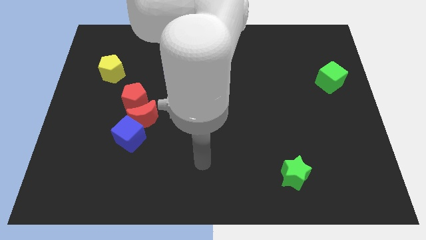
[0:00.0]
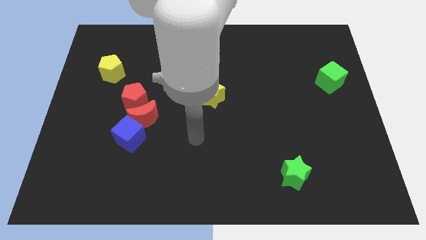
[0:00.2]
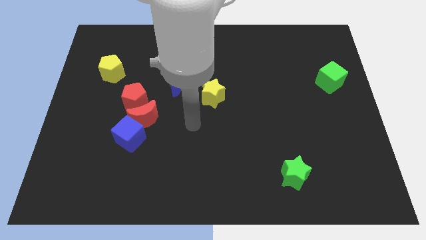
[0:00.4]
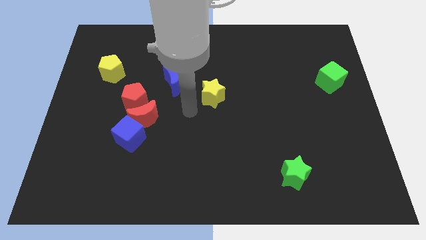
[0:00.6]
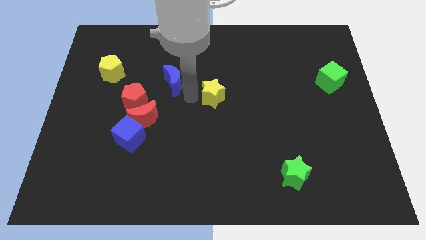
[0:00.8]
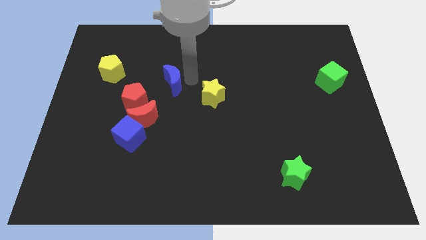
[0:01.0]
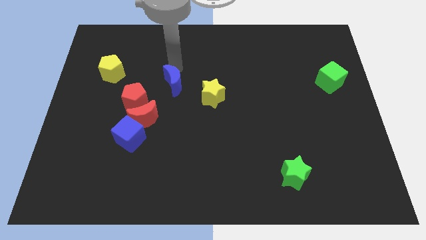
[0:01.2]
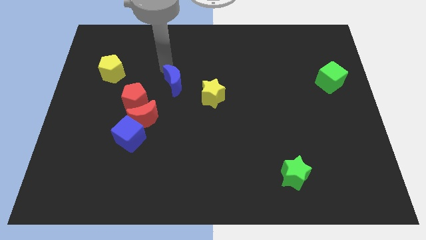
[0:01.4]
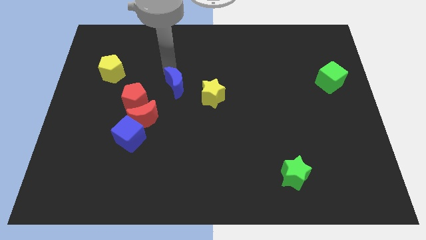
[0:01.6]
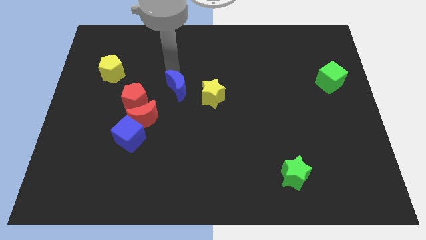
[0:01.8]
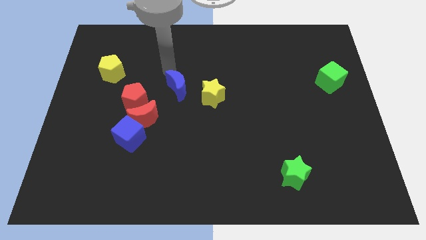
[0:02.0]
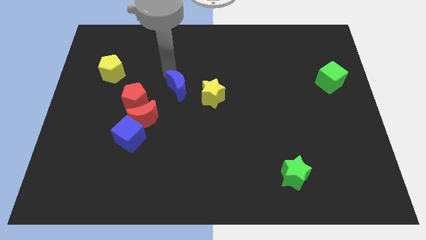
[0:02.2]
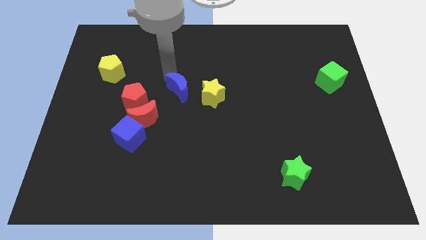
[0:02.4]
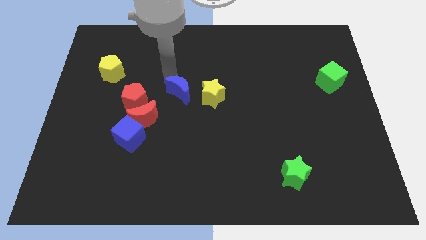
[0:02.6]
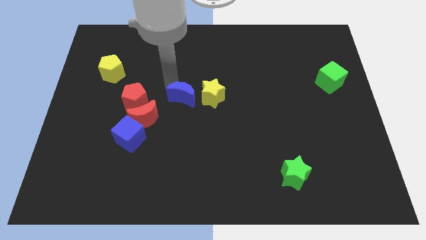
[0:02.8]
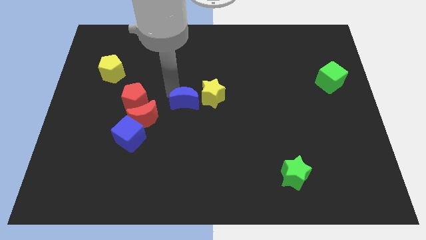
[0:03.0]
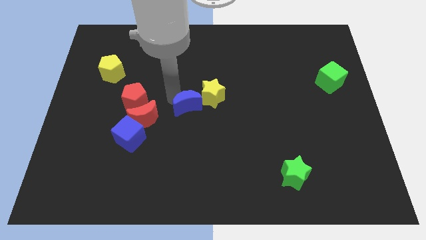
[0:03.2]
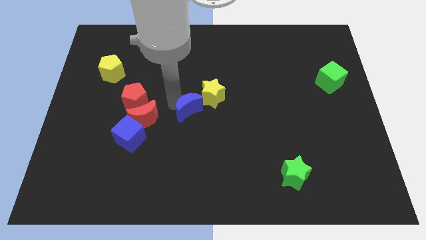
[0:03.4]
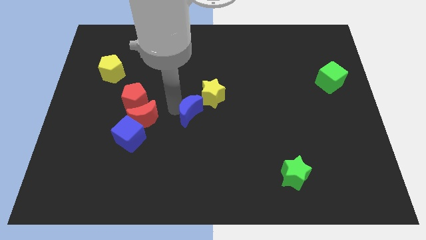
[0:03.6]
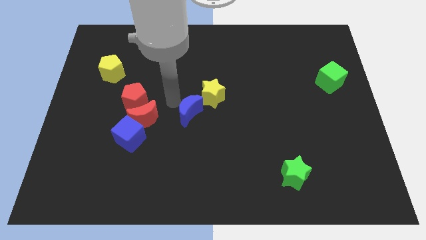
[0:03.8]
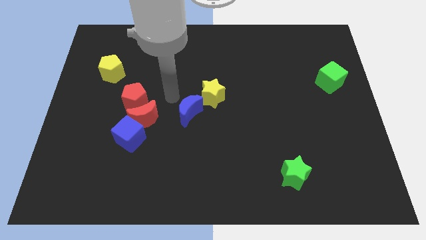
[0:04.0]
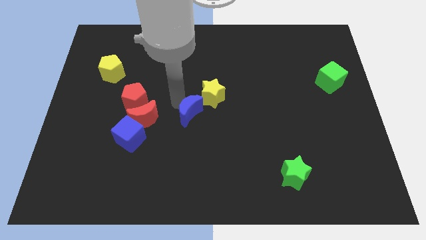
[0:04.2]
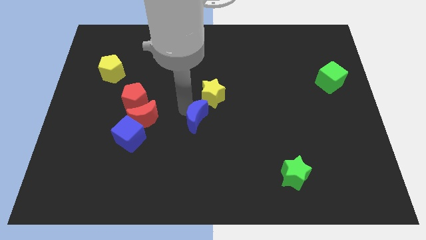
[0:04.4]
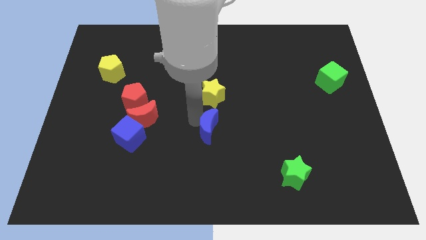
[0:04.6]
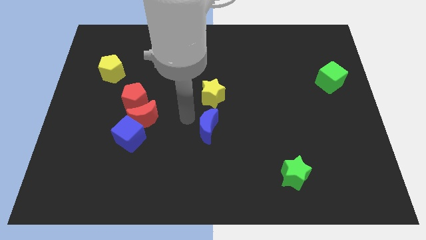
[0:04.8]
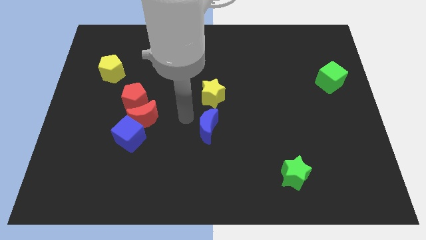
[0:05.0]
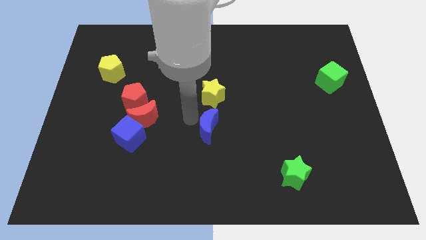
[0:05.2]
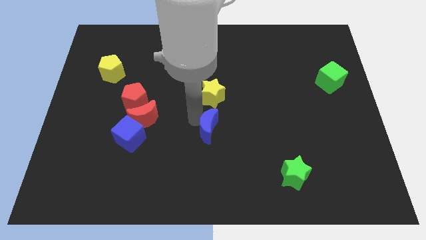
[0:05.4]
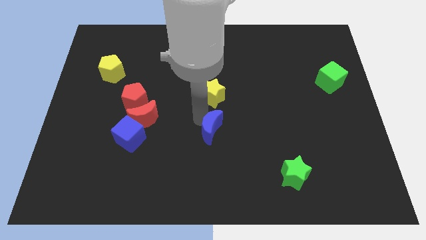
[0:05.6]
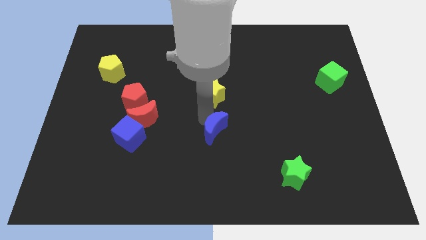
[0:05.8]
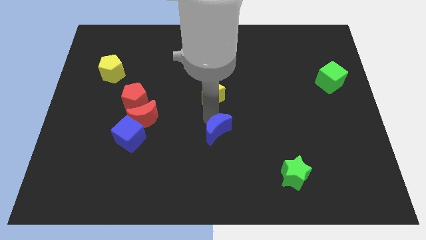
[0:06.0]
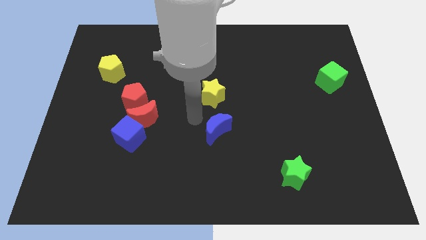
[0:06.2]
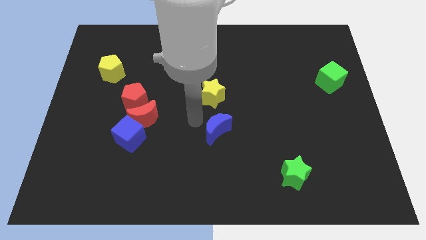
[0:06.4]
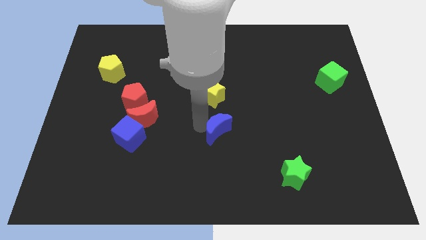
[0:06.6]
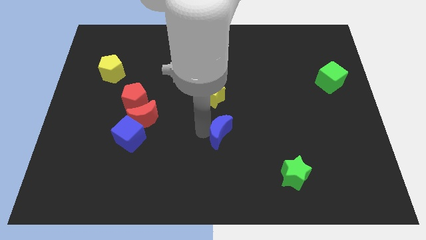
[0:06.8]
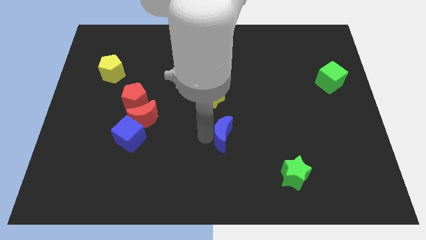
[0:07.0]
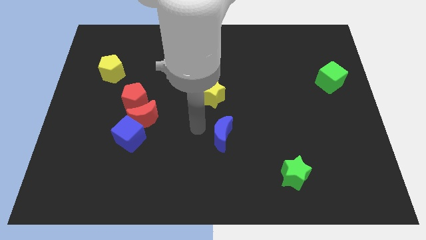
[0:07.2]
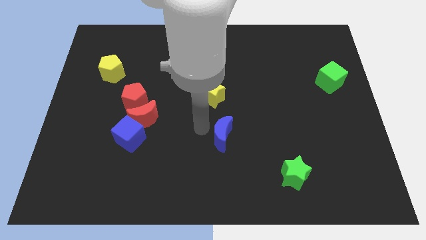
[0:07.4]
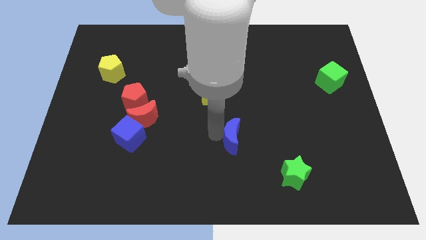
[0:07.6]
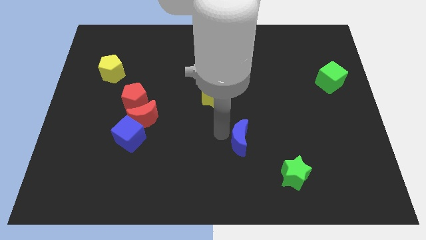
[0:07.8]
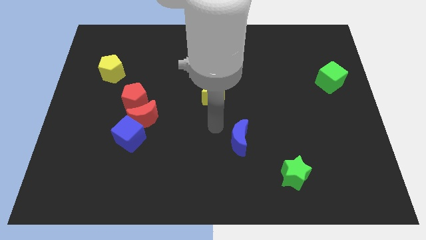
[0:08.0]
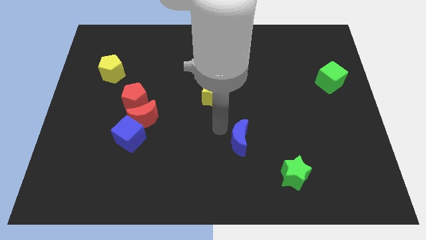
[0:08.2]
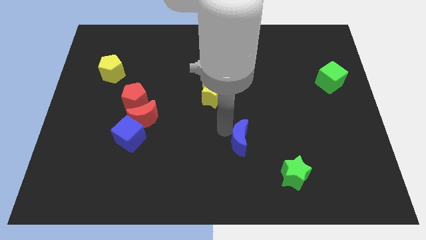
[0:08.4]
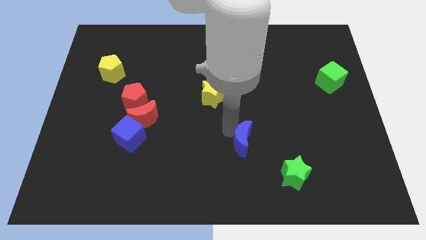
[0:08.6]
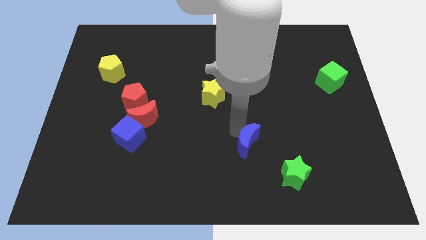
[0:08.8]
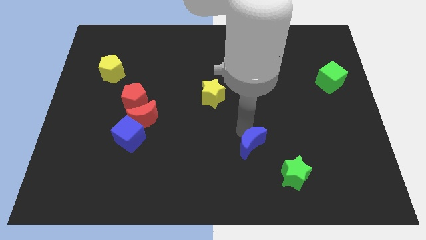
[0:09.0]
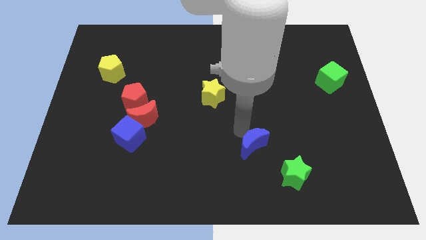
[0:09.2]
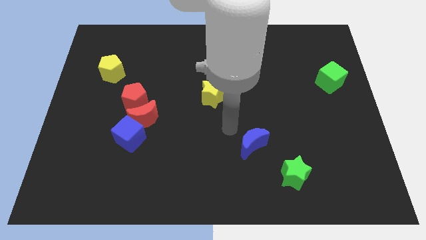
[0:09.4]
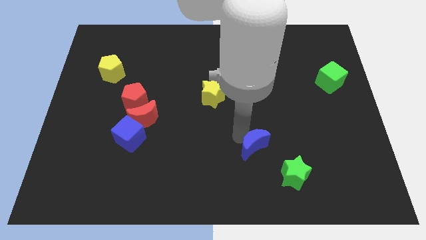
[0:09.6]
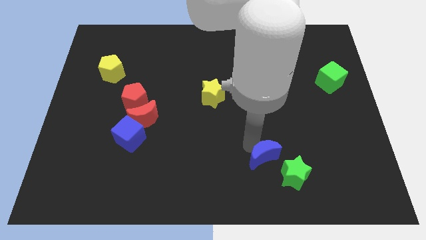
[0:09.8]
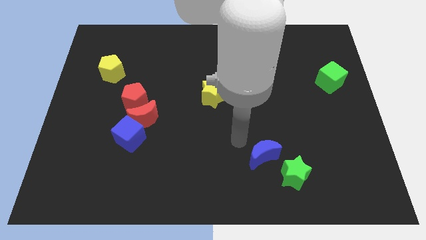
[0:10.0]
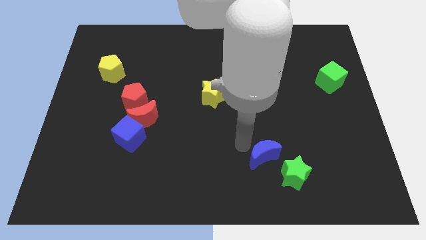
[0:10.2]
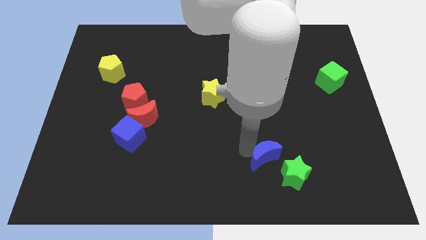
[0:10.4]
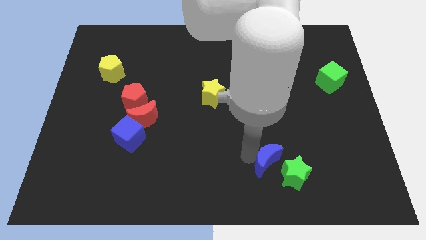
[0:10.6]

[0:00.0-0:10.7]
slide the blue moon close to the green star

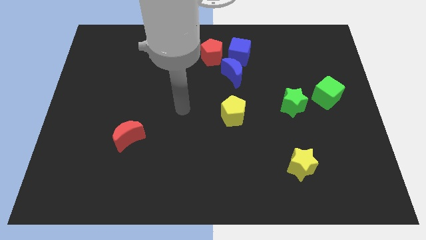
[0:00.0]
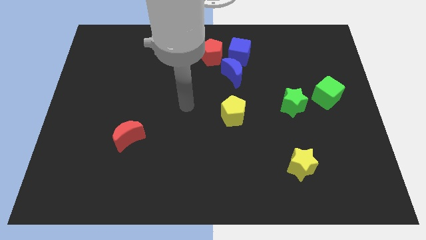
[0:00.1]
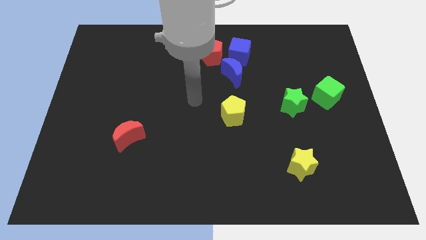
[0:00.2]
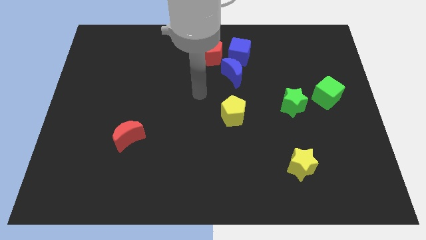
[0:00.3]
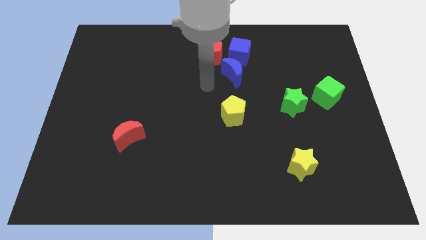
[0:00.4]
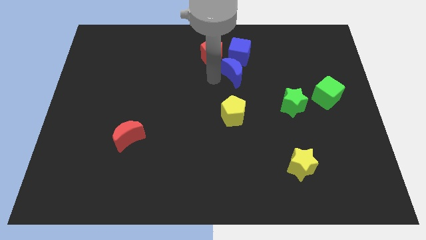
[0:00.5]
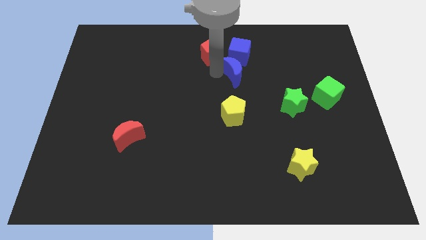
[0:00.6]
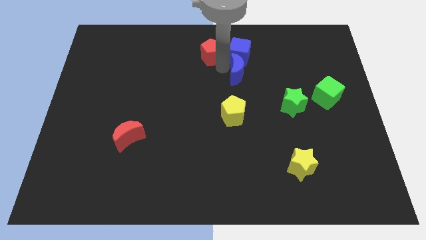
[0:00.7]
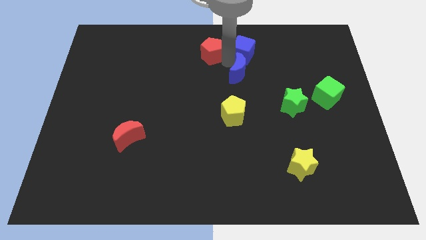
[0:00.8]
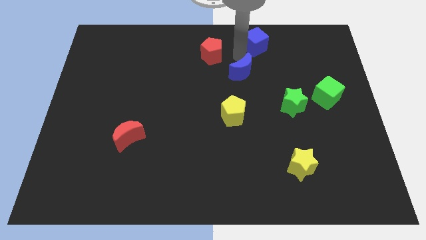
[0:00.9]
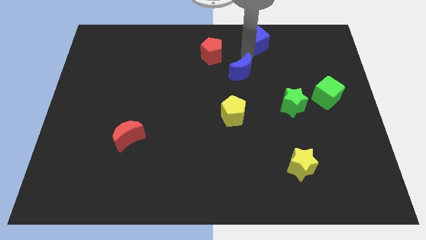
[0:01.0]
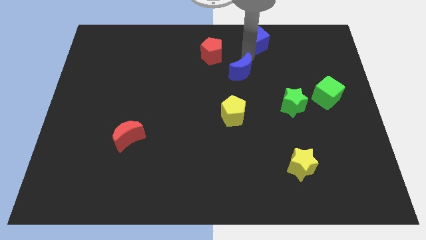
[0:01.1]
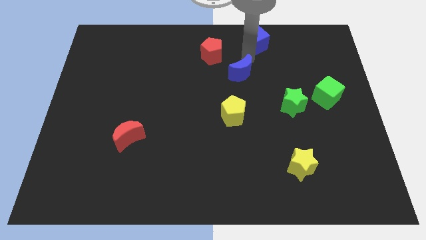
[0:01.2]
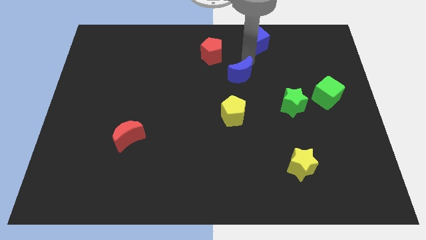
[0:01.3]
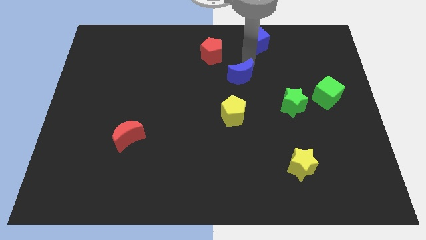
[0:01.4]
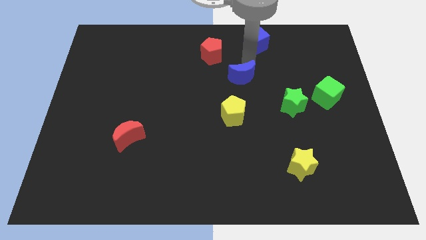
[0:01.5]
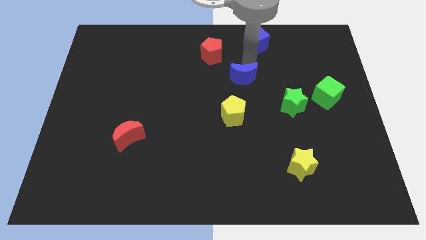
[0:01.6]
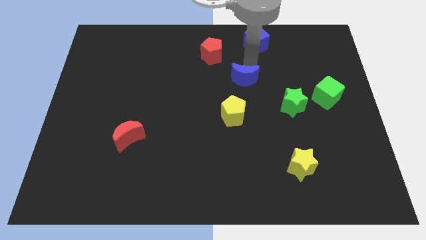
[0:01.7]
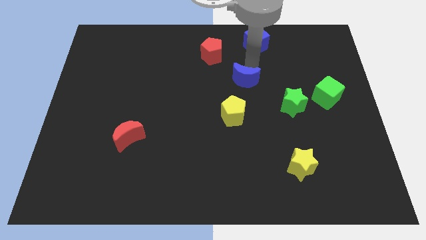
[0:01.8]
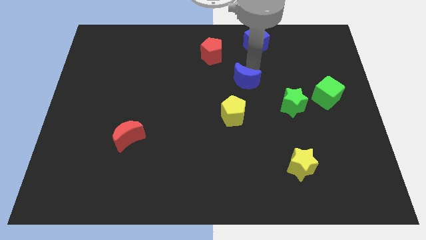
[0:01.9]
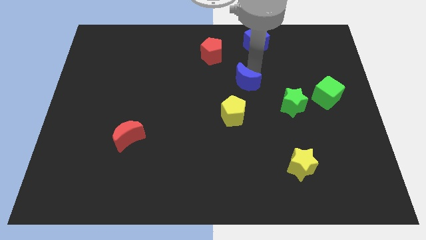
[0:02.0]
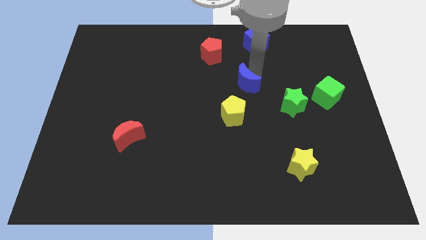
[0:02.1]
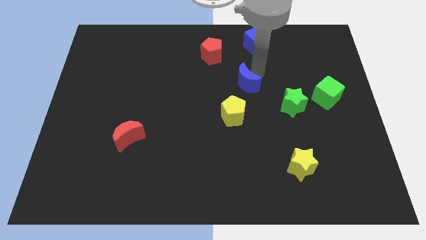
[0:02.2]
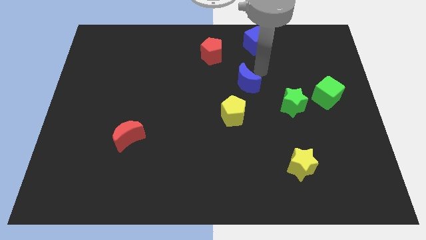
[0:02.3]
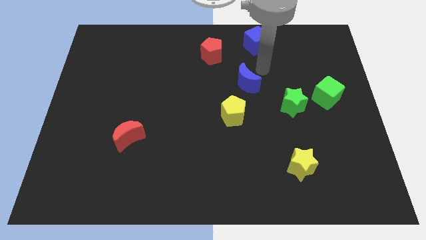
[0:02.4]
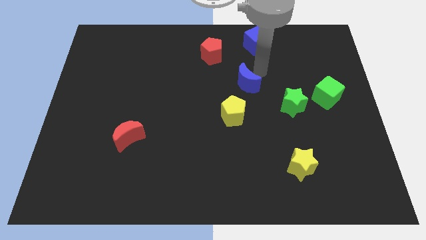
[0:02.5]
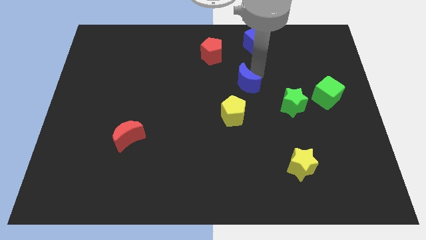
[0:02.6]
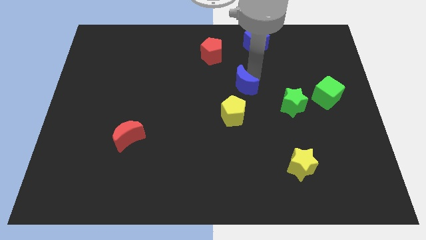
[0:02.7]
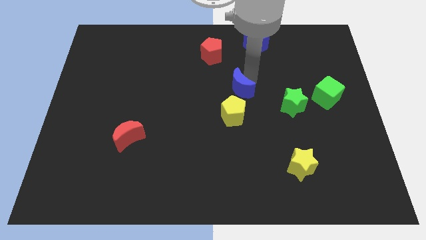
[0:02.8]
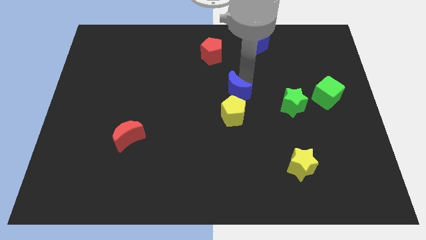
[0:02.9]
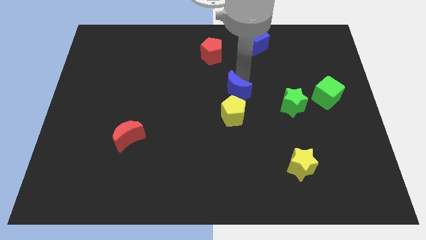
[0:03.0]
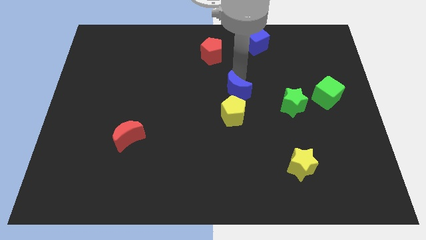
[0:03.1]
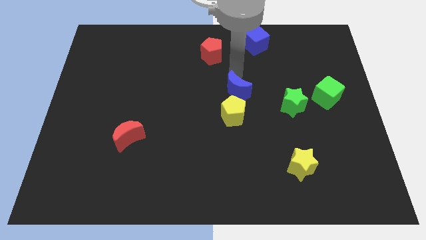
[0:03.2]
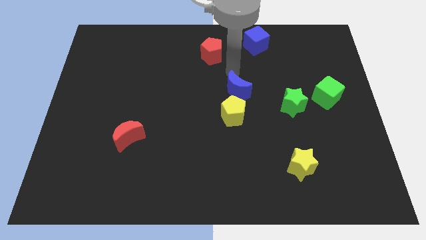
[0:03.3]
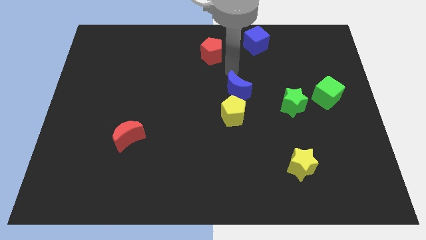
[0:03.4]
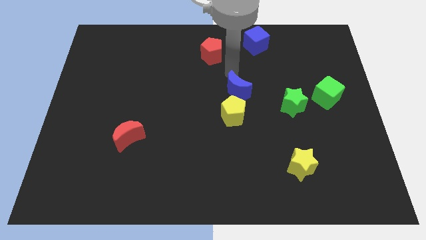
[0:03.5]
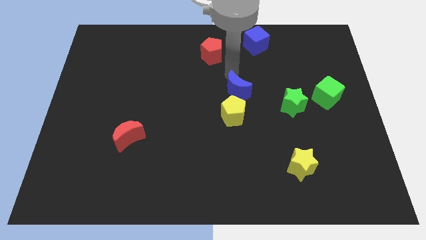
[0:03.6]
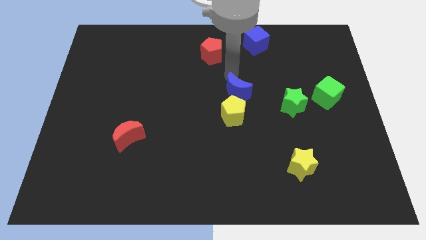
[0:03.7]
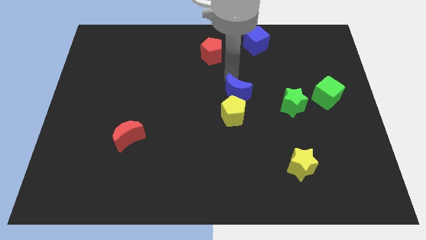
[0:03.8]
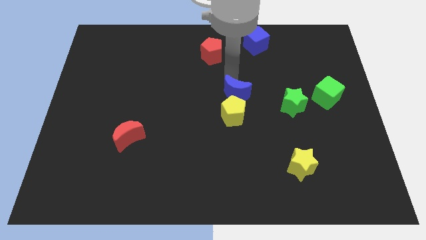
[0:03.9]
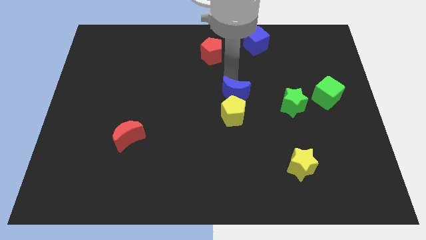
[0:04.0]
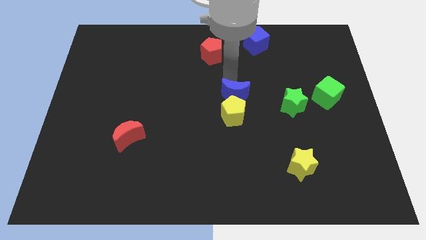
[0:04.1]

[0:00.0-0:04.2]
move the blue moon close to the yellow pentagon
